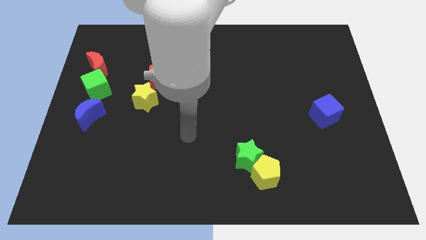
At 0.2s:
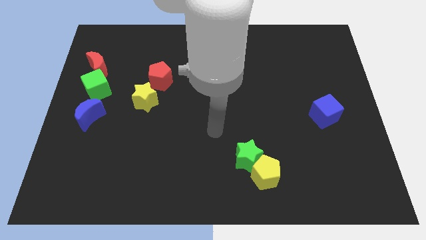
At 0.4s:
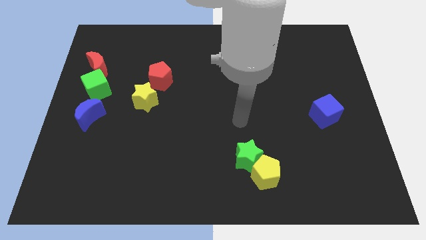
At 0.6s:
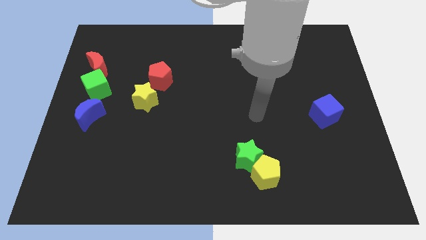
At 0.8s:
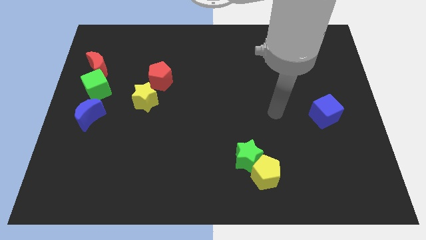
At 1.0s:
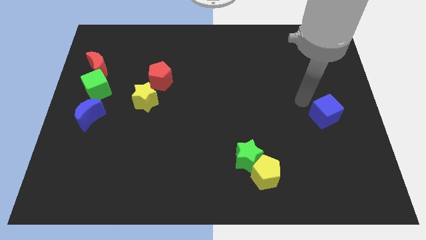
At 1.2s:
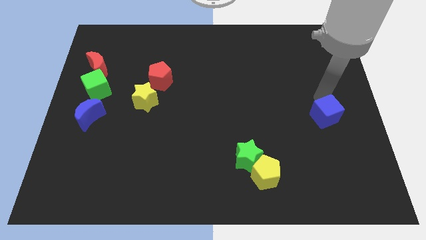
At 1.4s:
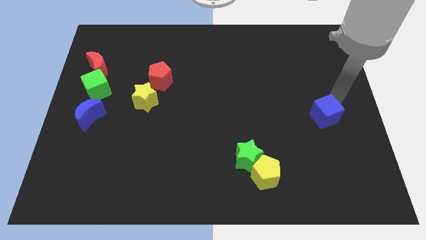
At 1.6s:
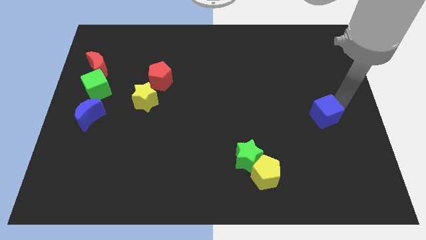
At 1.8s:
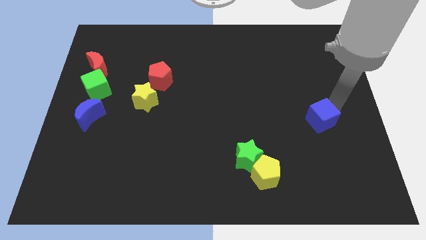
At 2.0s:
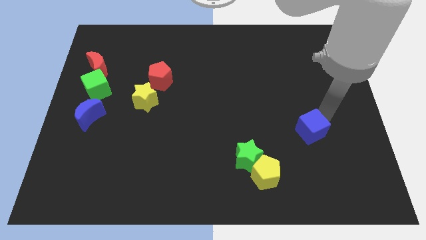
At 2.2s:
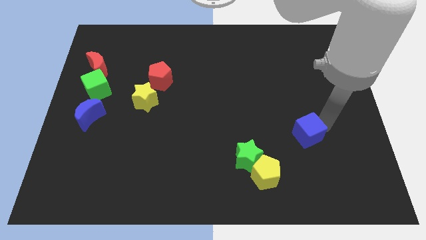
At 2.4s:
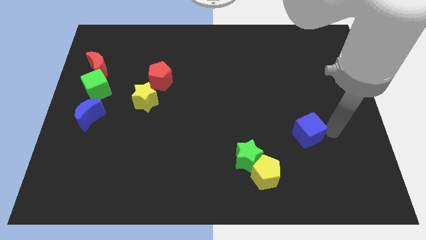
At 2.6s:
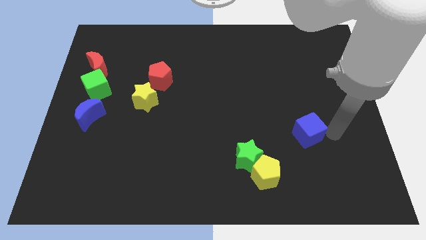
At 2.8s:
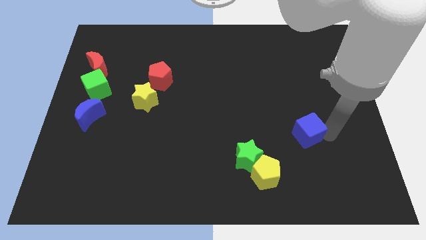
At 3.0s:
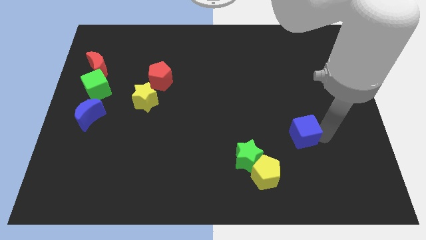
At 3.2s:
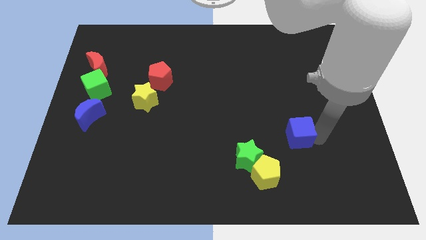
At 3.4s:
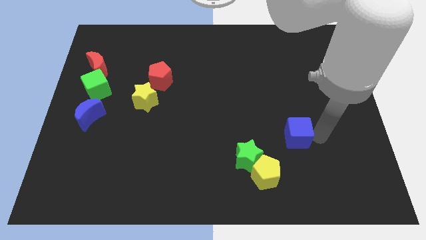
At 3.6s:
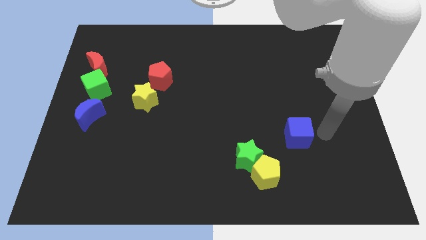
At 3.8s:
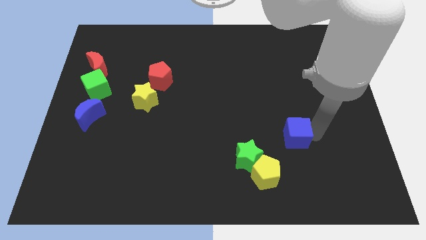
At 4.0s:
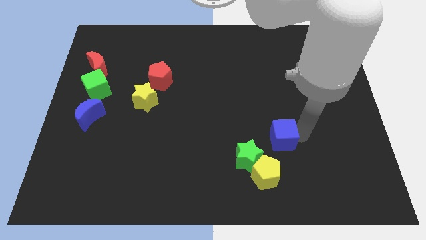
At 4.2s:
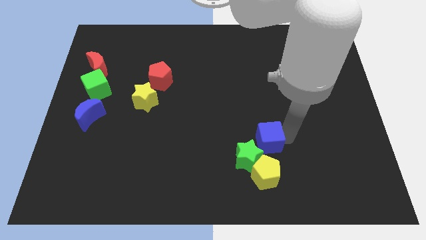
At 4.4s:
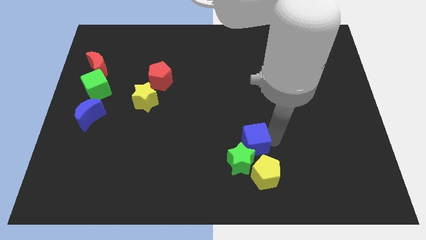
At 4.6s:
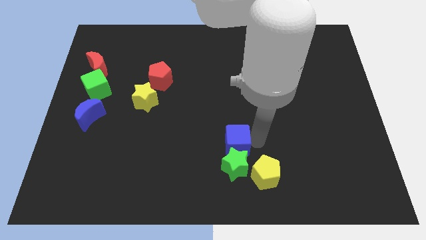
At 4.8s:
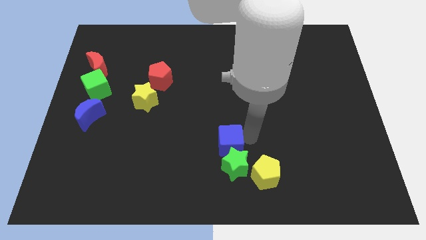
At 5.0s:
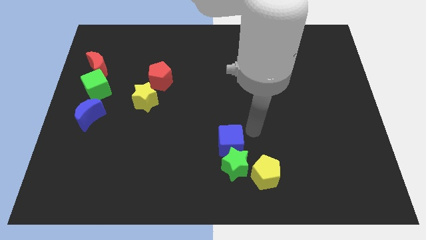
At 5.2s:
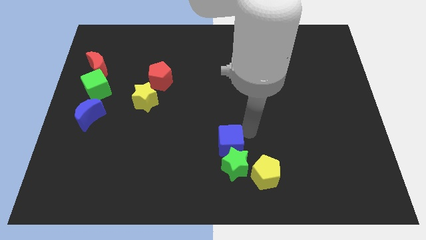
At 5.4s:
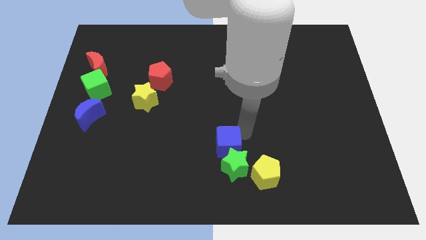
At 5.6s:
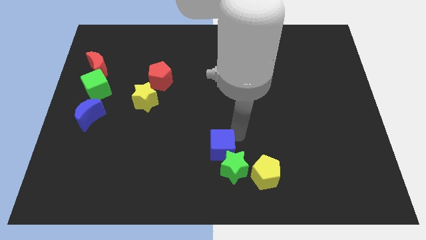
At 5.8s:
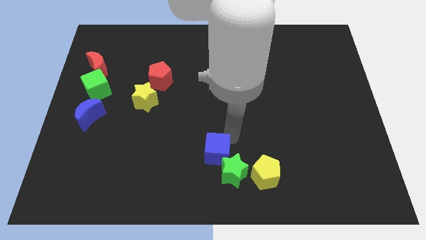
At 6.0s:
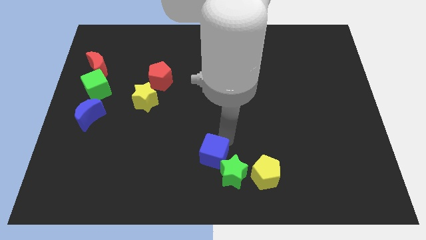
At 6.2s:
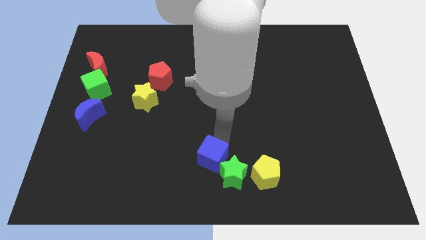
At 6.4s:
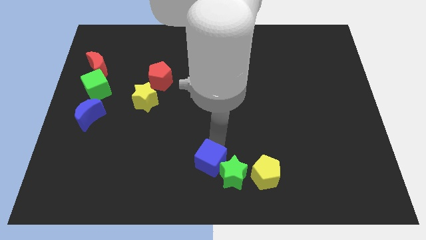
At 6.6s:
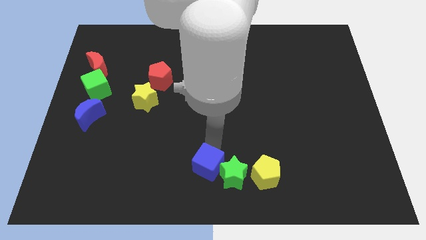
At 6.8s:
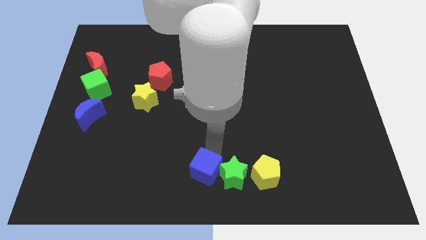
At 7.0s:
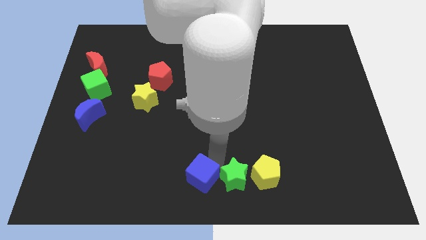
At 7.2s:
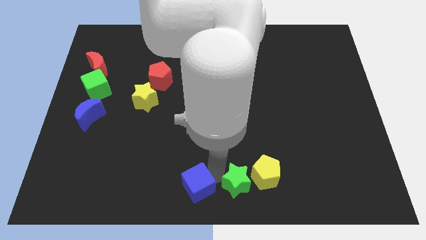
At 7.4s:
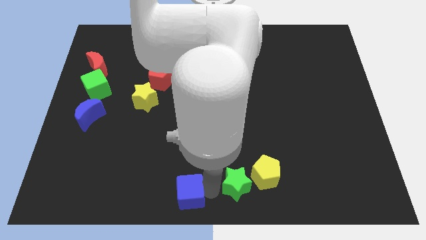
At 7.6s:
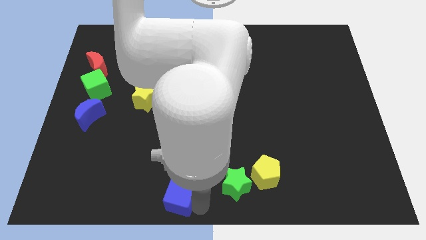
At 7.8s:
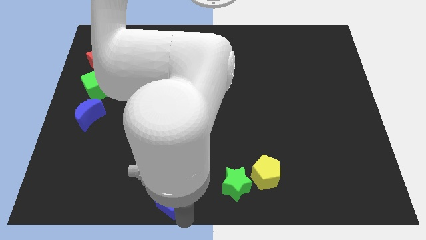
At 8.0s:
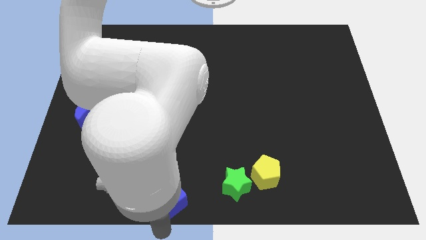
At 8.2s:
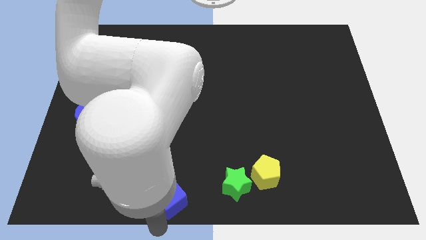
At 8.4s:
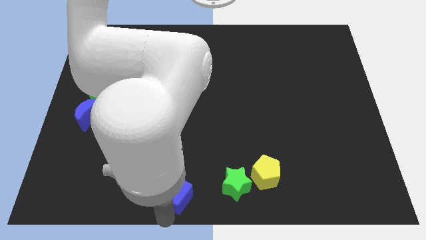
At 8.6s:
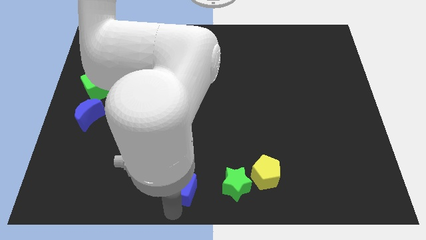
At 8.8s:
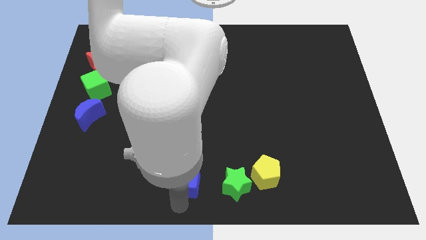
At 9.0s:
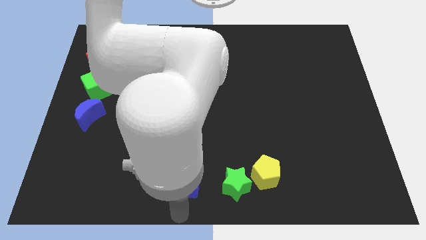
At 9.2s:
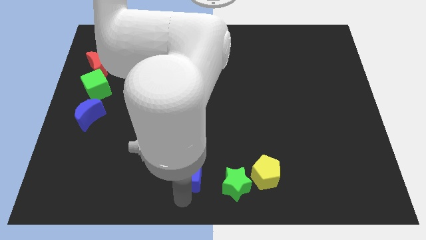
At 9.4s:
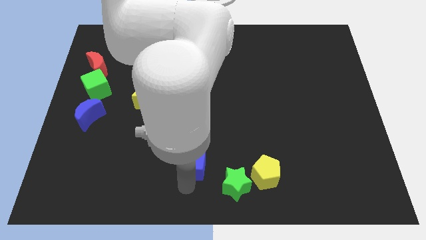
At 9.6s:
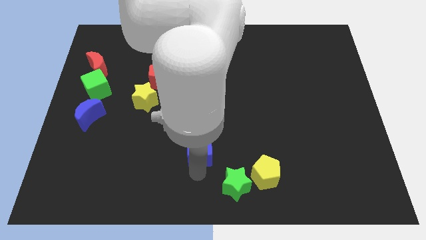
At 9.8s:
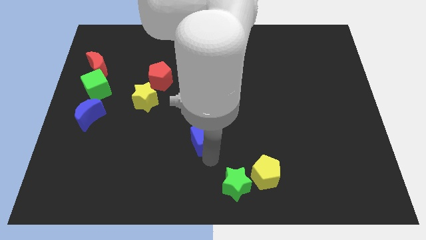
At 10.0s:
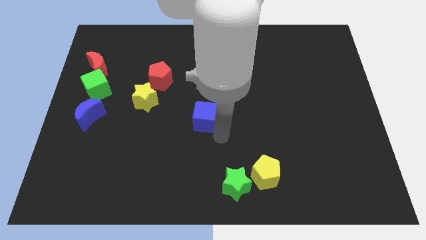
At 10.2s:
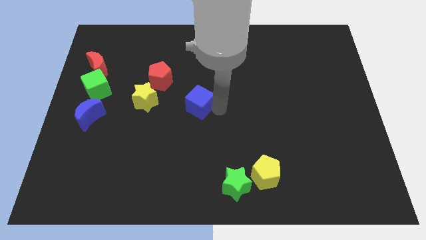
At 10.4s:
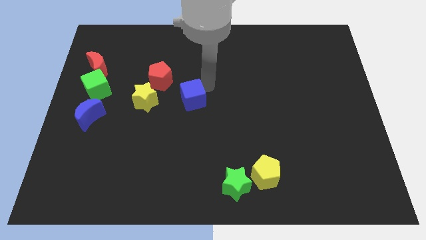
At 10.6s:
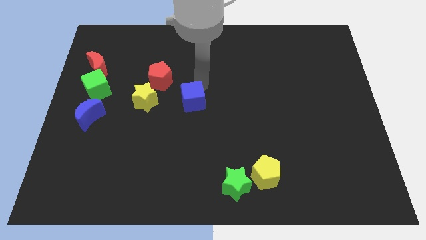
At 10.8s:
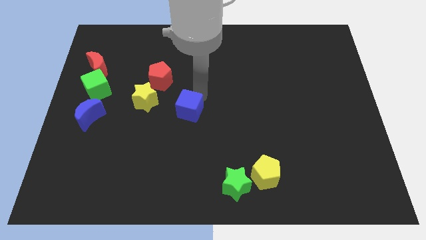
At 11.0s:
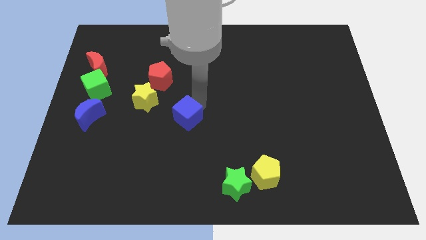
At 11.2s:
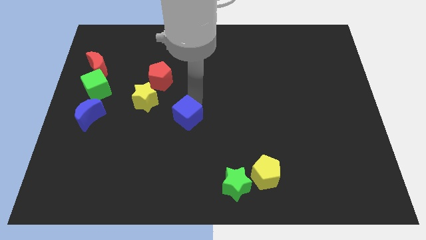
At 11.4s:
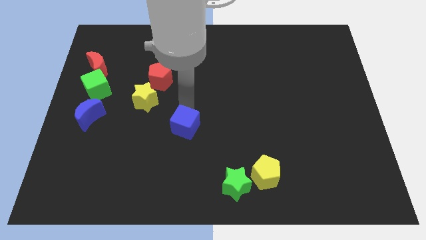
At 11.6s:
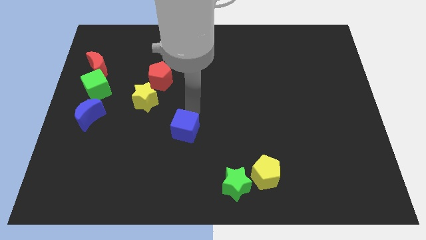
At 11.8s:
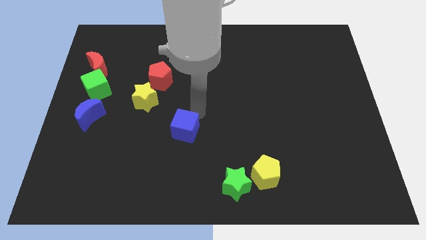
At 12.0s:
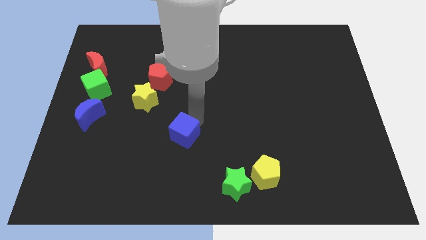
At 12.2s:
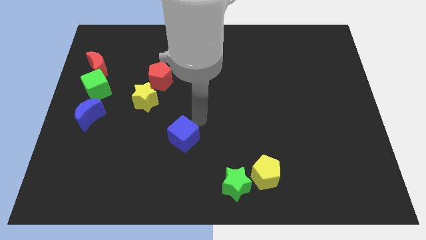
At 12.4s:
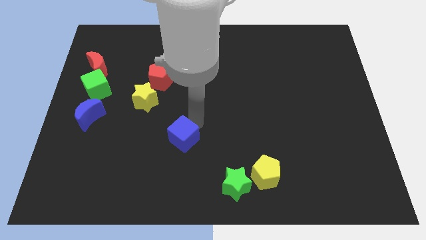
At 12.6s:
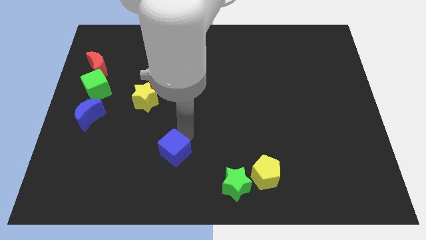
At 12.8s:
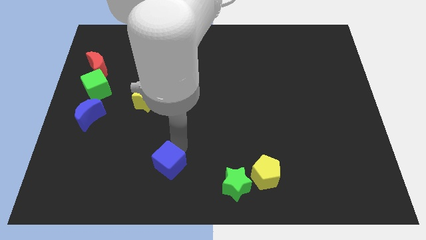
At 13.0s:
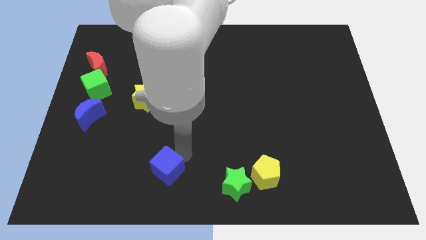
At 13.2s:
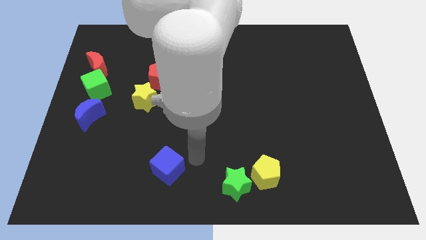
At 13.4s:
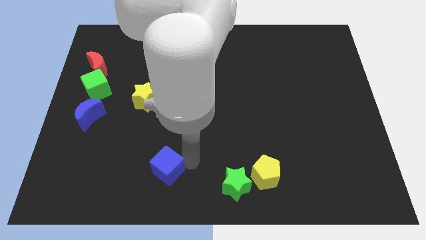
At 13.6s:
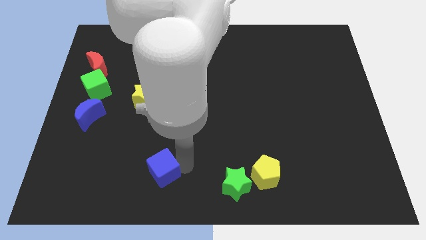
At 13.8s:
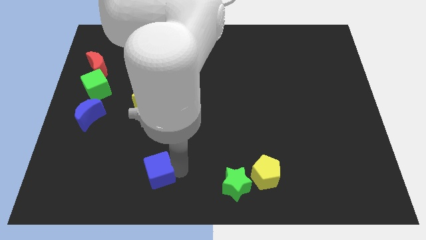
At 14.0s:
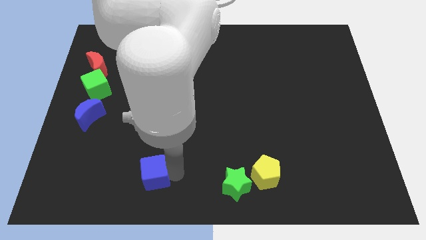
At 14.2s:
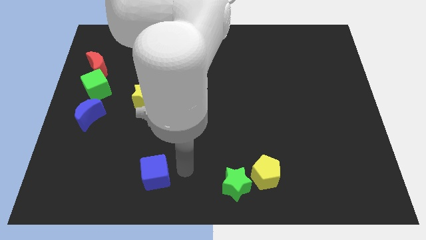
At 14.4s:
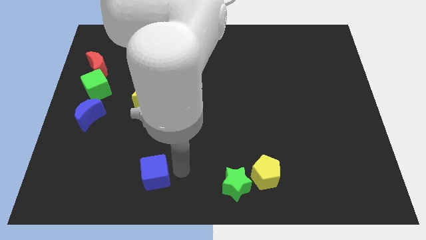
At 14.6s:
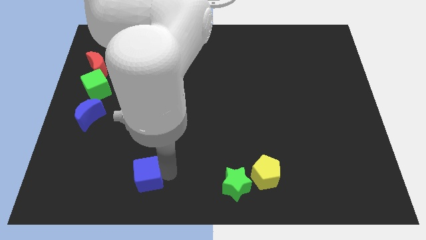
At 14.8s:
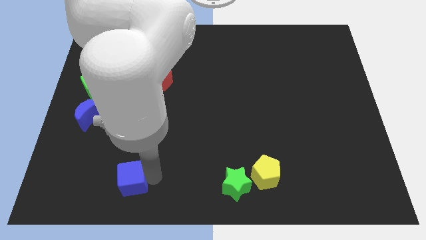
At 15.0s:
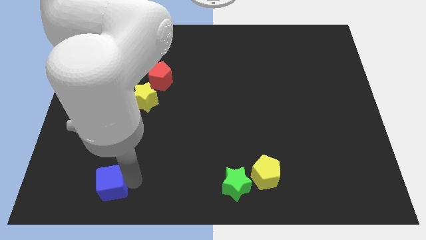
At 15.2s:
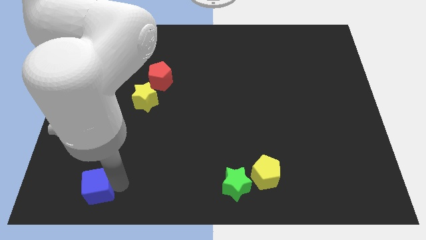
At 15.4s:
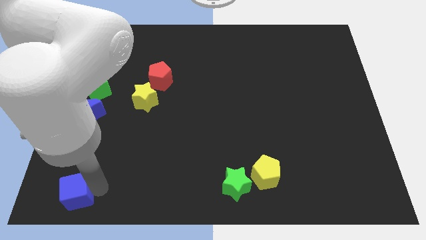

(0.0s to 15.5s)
push the blue cube to the bottom left of the board
